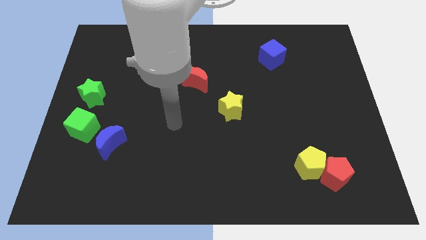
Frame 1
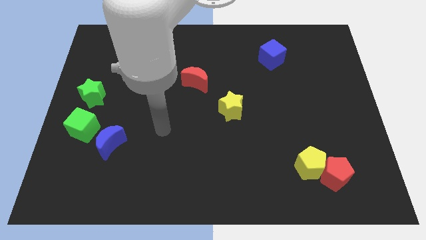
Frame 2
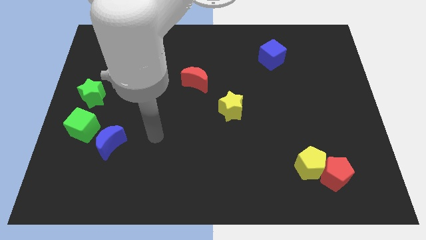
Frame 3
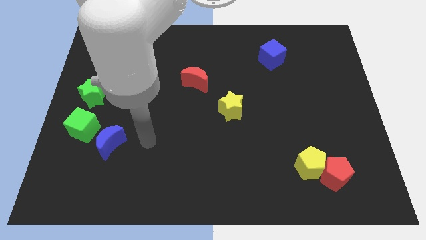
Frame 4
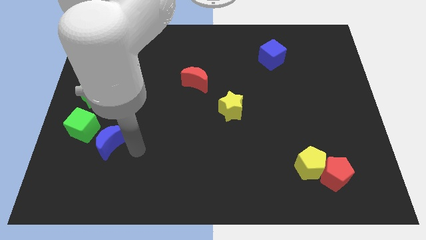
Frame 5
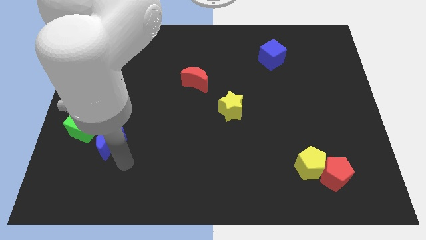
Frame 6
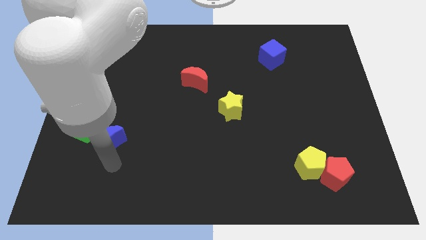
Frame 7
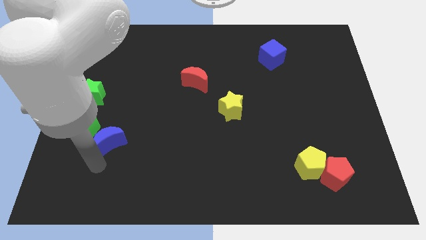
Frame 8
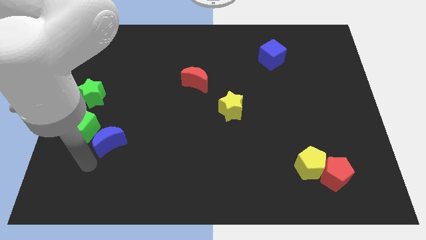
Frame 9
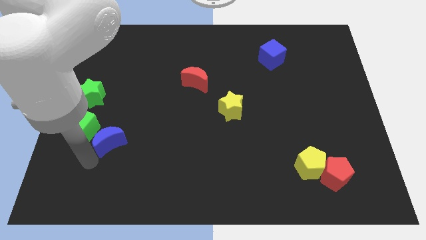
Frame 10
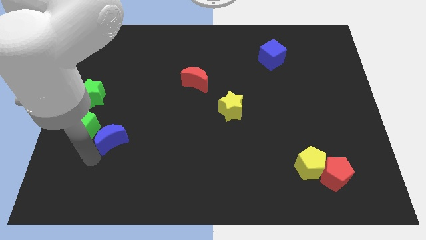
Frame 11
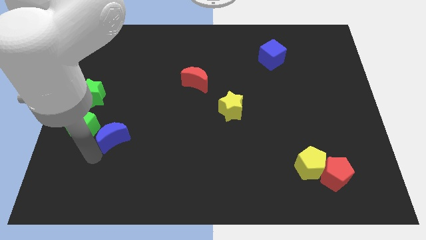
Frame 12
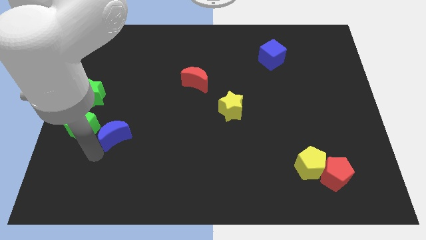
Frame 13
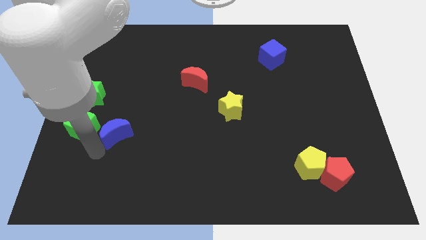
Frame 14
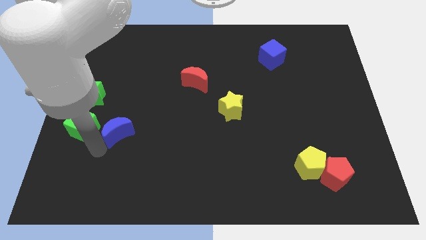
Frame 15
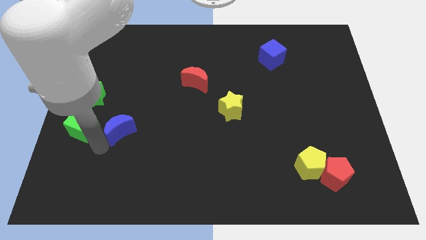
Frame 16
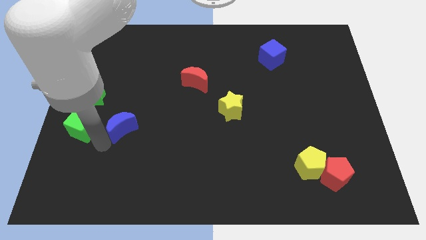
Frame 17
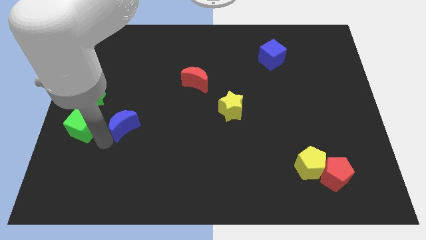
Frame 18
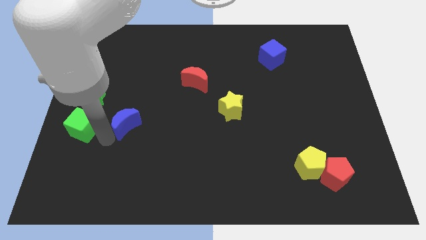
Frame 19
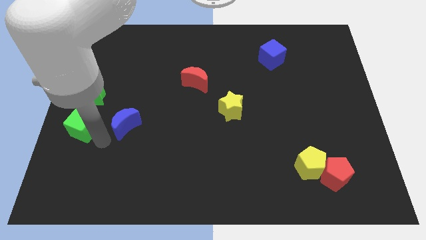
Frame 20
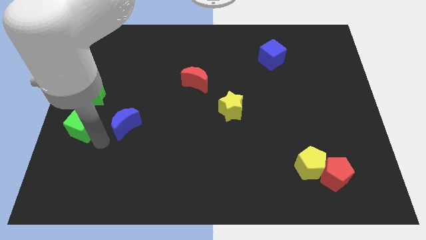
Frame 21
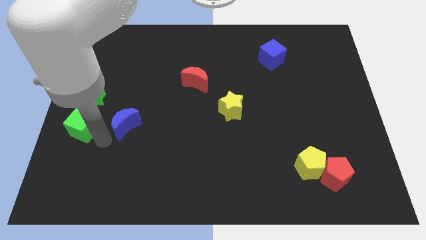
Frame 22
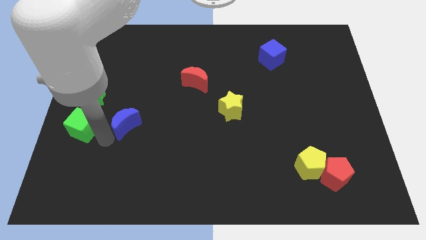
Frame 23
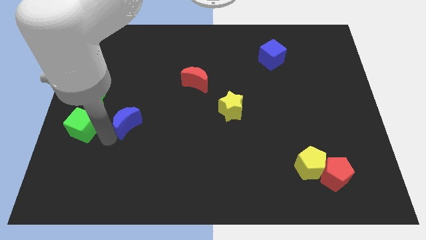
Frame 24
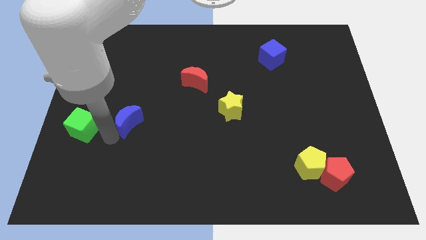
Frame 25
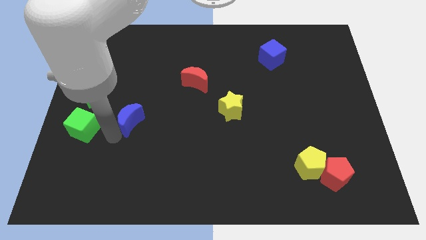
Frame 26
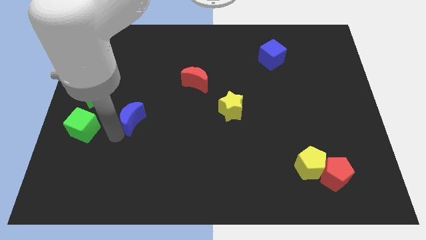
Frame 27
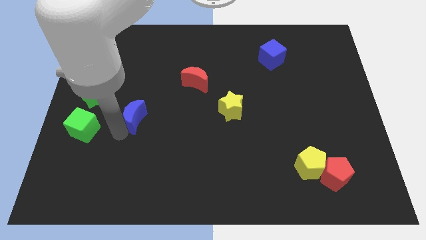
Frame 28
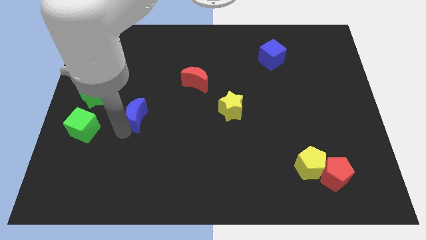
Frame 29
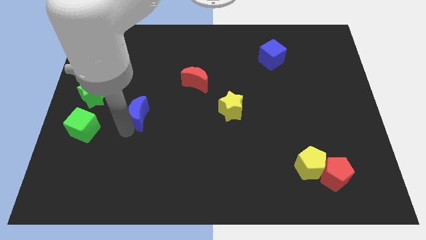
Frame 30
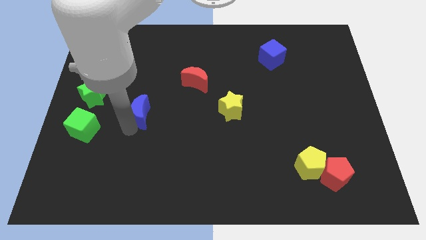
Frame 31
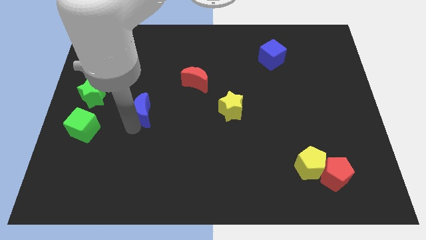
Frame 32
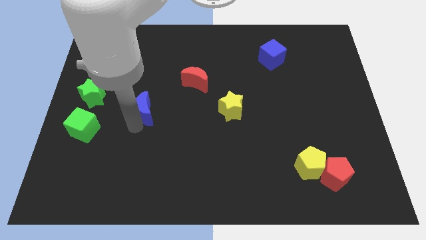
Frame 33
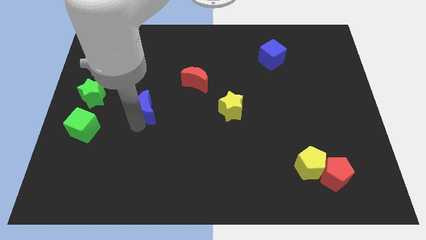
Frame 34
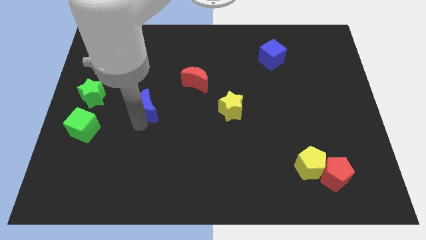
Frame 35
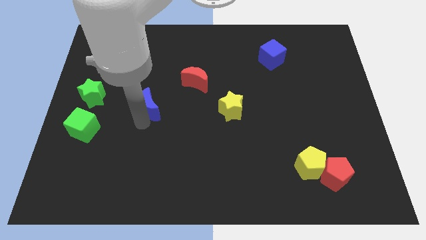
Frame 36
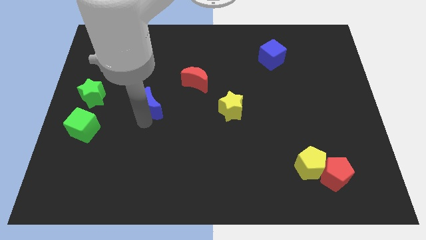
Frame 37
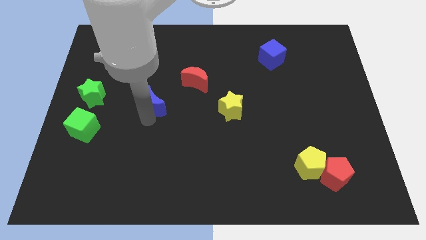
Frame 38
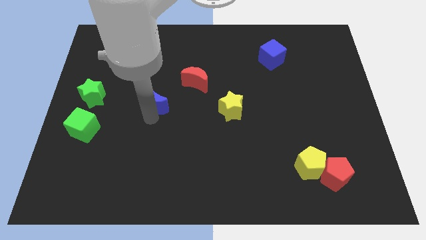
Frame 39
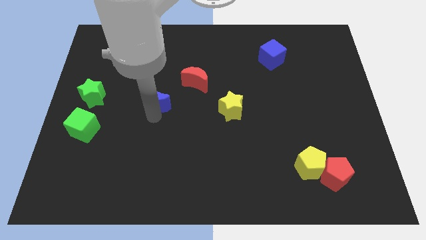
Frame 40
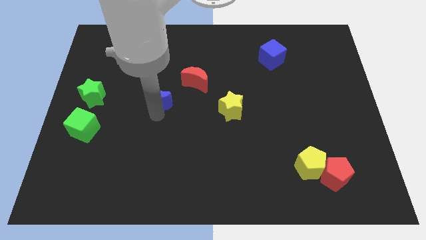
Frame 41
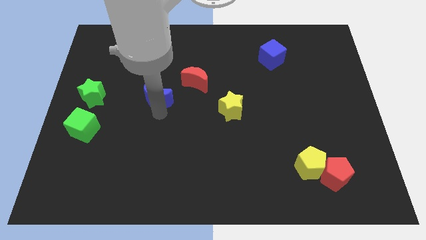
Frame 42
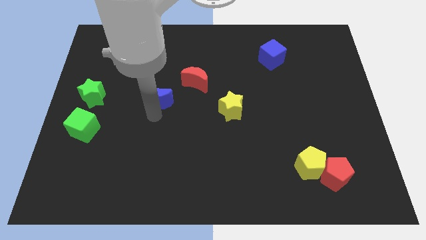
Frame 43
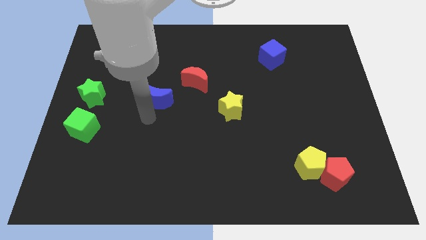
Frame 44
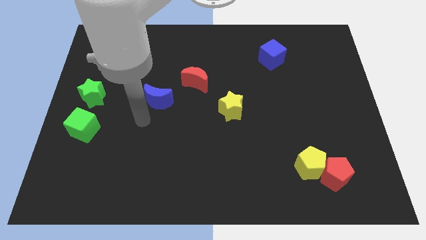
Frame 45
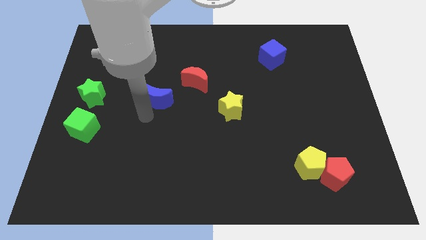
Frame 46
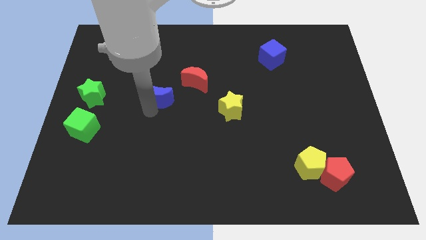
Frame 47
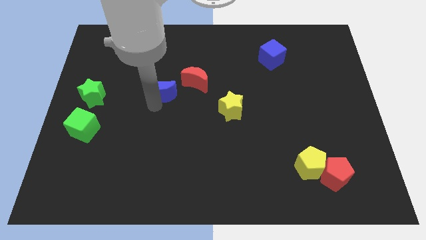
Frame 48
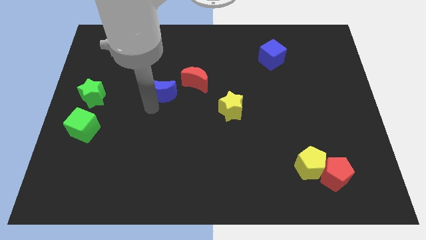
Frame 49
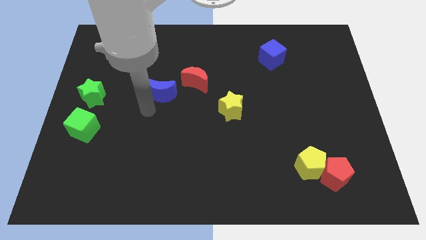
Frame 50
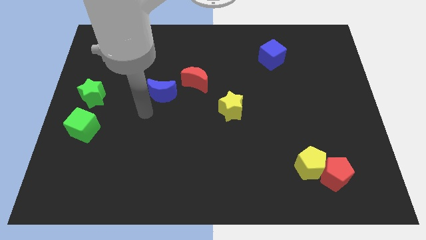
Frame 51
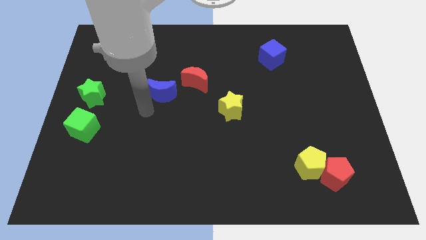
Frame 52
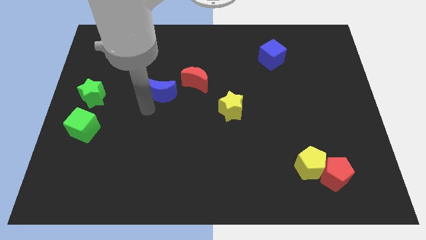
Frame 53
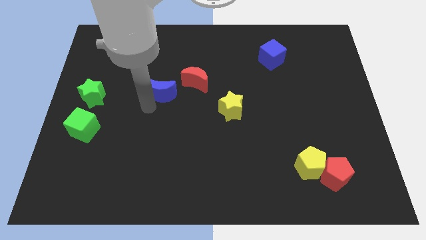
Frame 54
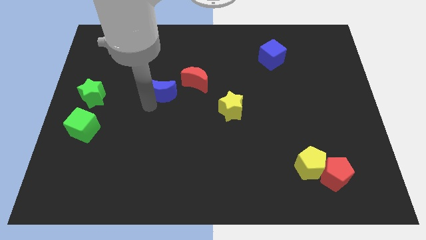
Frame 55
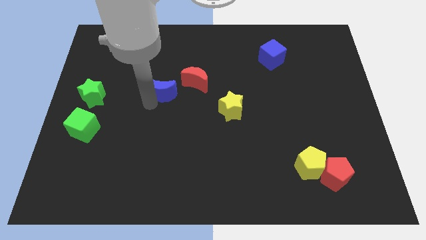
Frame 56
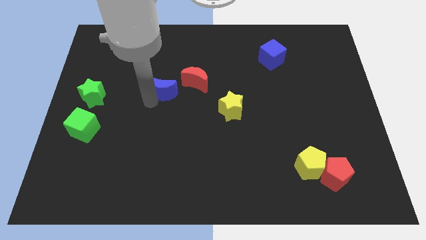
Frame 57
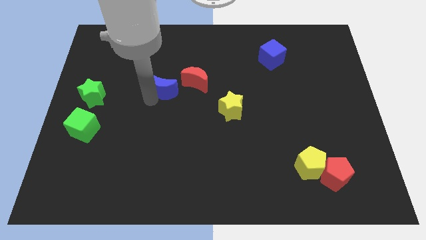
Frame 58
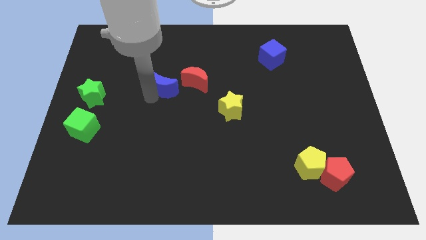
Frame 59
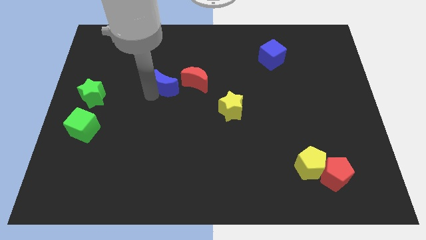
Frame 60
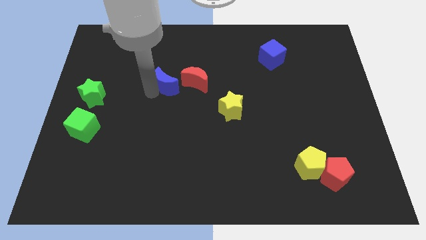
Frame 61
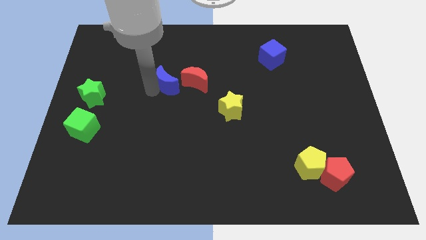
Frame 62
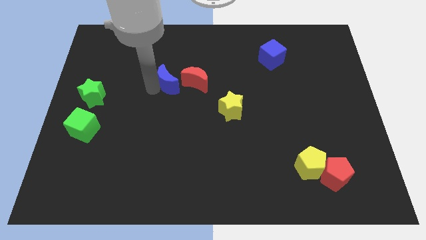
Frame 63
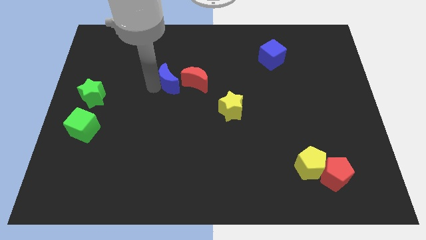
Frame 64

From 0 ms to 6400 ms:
slide the blue moon upwards and to the right diagonally

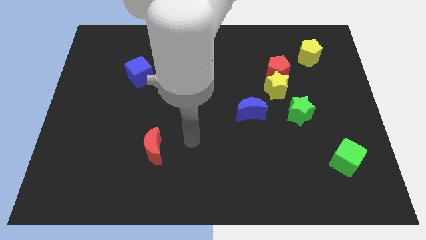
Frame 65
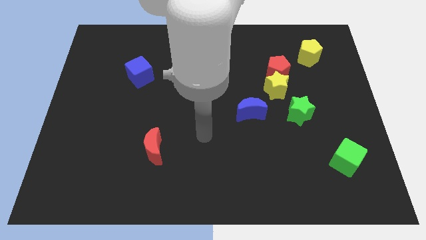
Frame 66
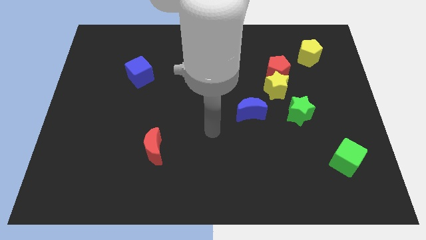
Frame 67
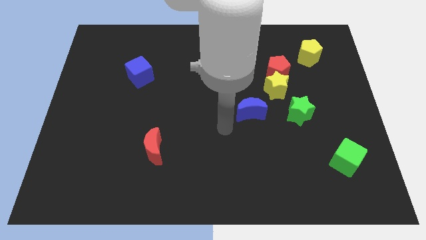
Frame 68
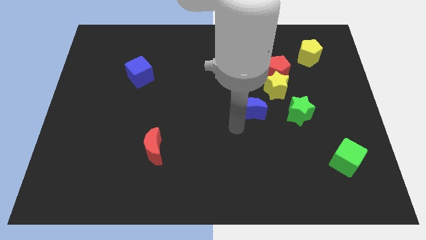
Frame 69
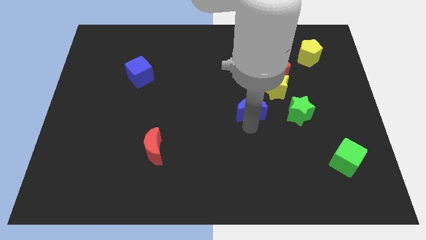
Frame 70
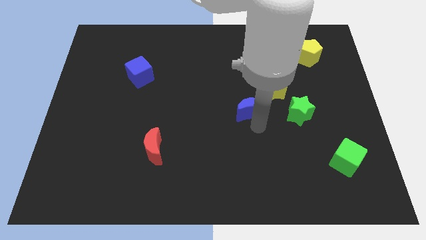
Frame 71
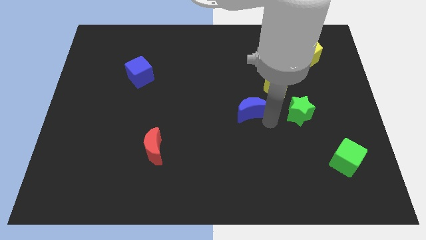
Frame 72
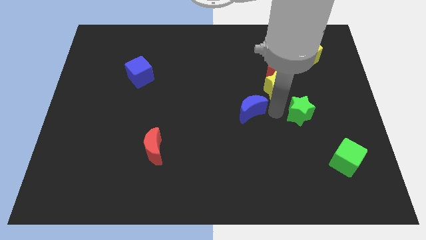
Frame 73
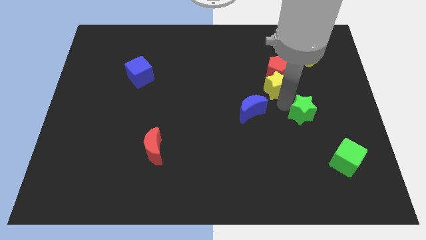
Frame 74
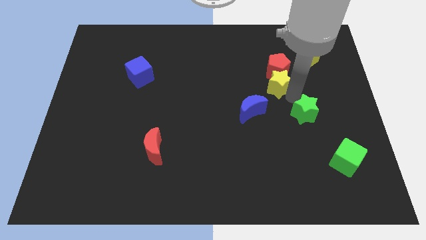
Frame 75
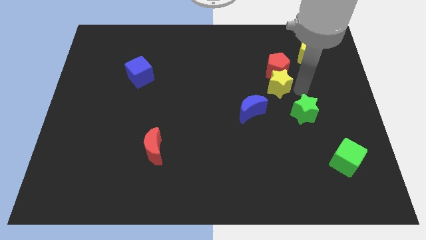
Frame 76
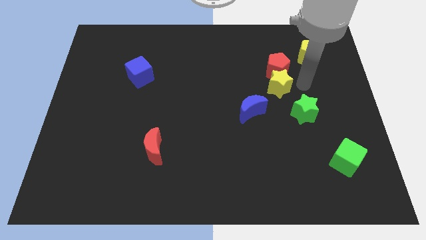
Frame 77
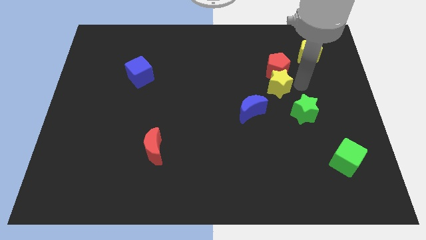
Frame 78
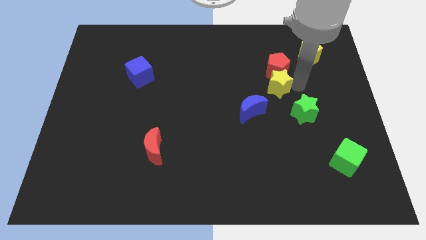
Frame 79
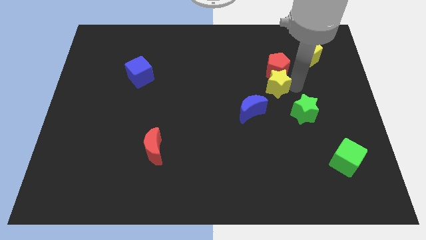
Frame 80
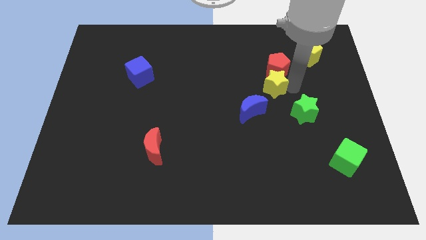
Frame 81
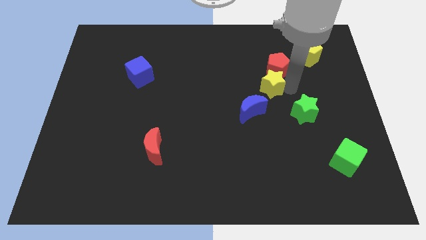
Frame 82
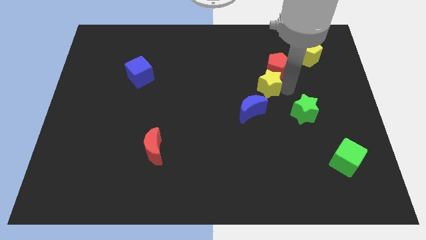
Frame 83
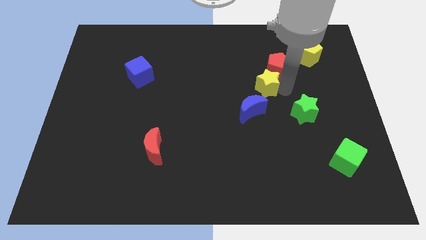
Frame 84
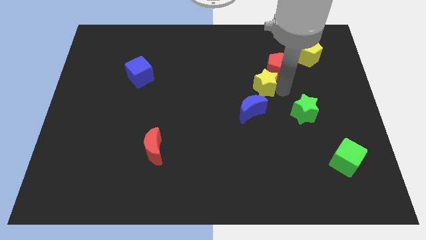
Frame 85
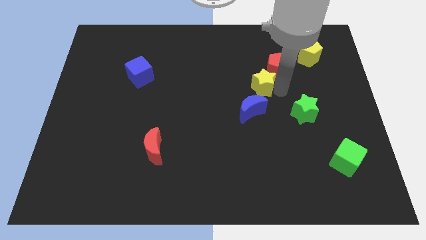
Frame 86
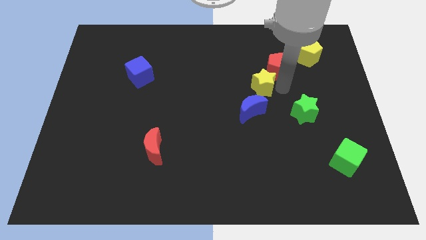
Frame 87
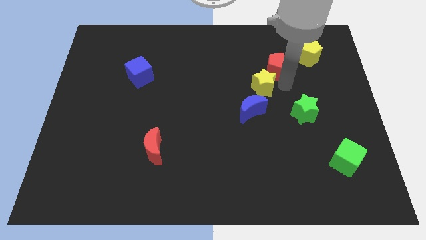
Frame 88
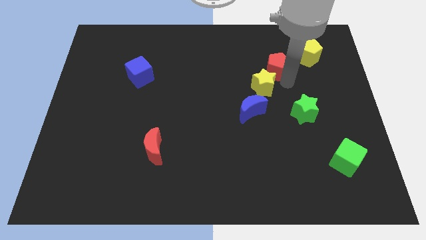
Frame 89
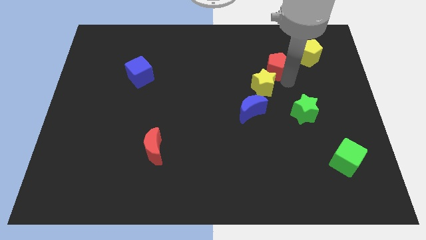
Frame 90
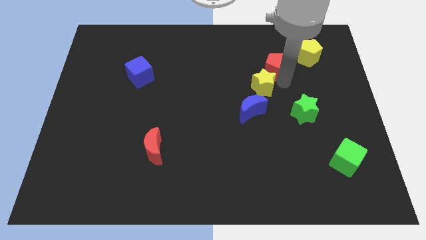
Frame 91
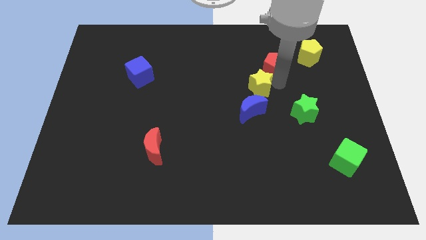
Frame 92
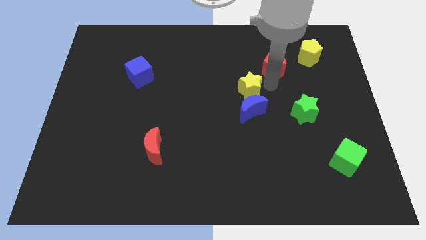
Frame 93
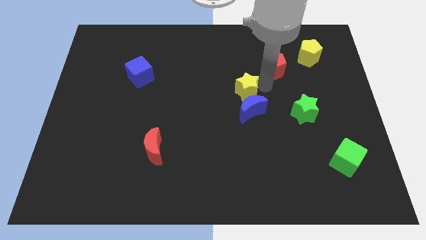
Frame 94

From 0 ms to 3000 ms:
slightly move the yellow star to the left
